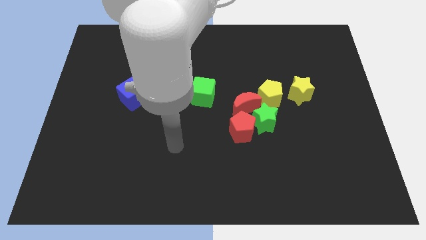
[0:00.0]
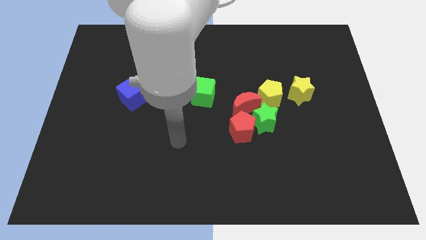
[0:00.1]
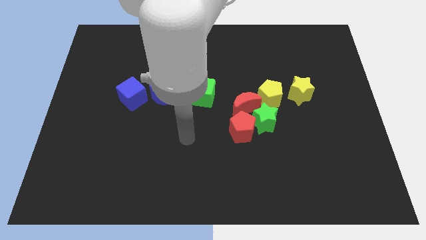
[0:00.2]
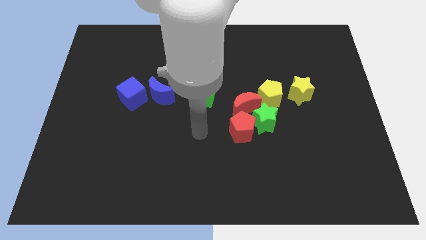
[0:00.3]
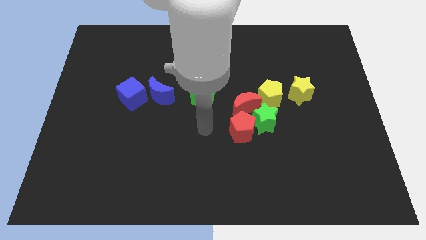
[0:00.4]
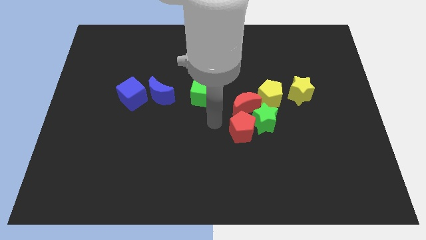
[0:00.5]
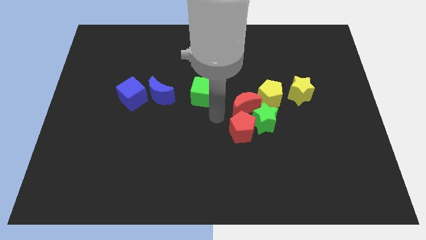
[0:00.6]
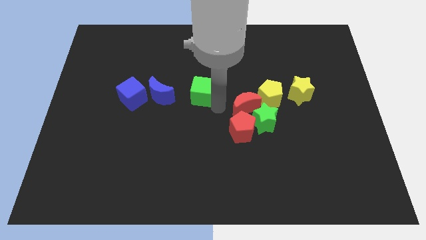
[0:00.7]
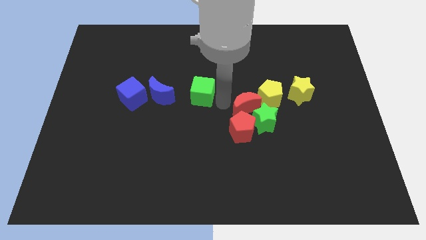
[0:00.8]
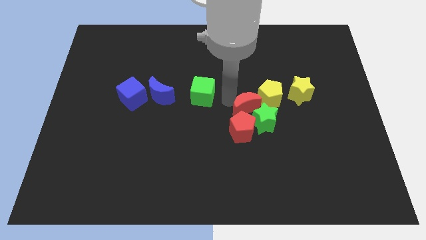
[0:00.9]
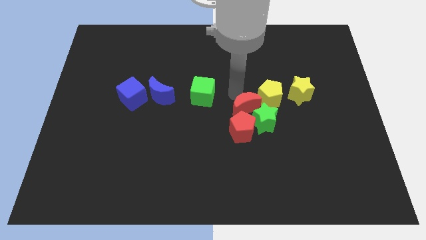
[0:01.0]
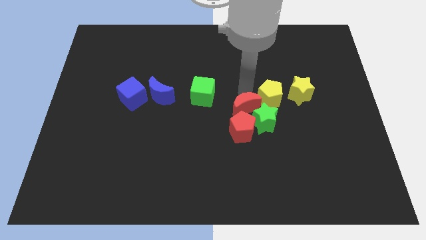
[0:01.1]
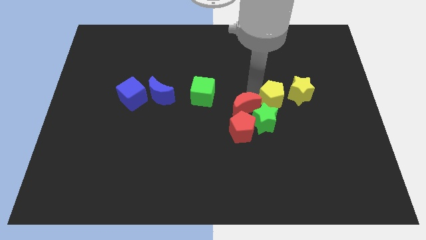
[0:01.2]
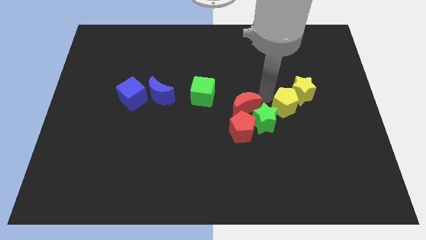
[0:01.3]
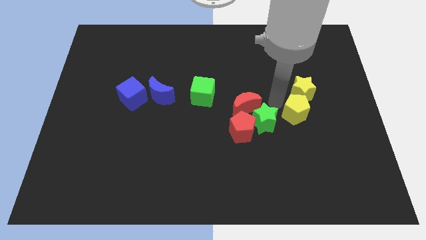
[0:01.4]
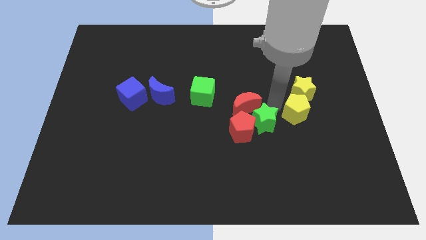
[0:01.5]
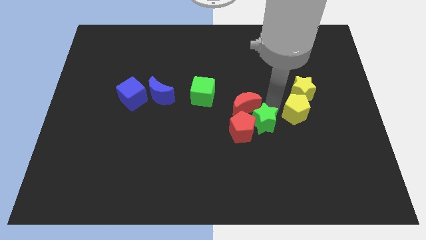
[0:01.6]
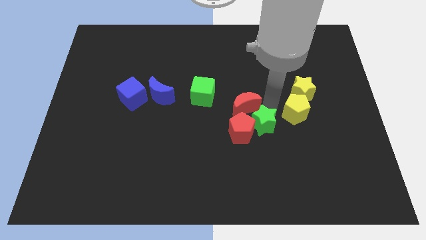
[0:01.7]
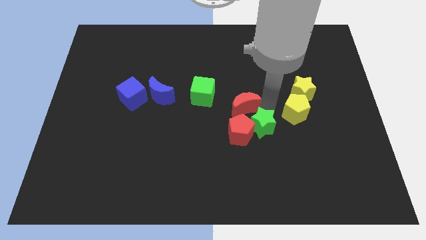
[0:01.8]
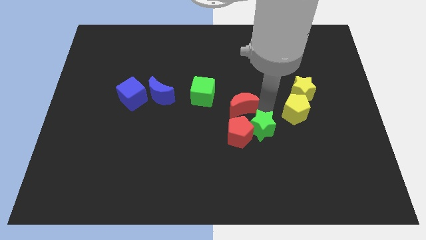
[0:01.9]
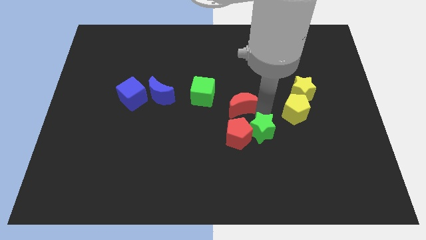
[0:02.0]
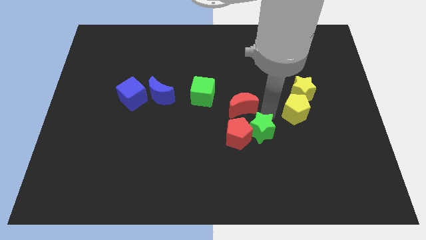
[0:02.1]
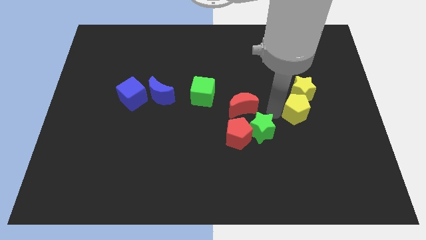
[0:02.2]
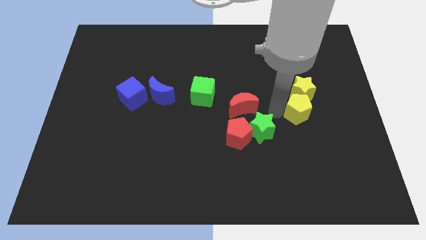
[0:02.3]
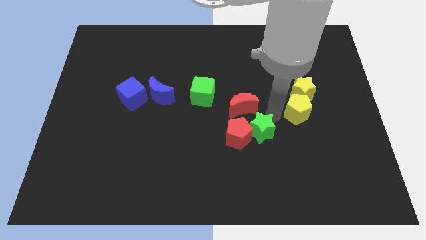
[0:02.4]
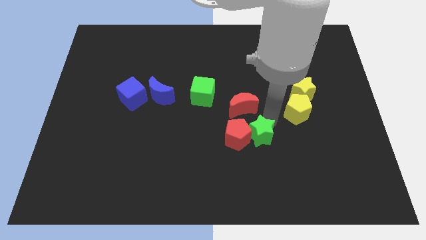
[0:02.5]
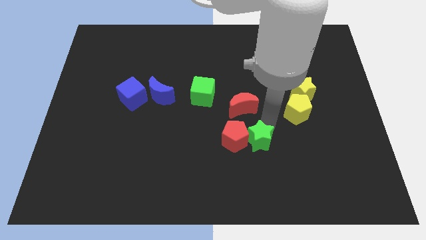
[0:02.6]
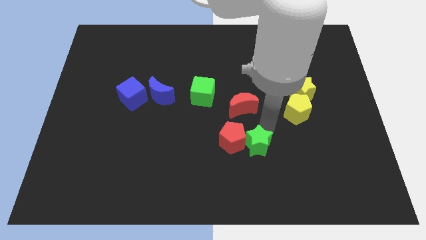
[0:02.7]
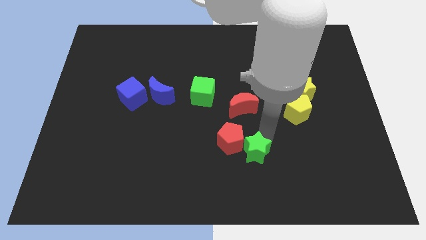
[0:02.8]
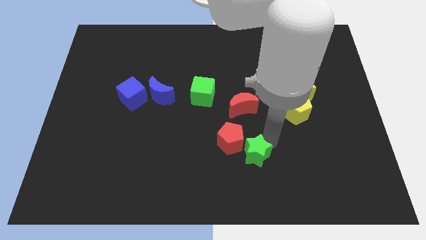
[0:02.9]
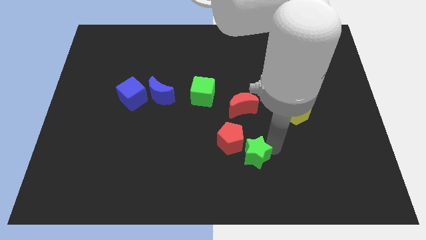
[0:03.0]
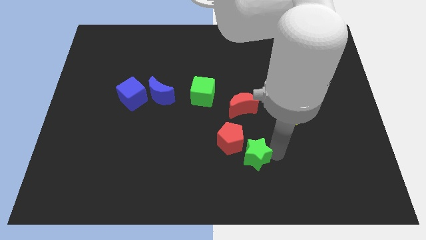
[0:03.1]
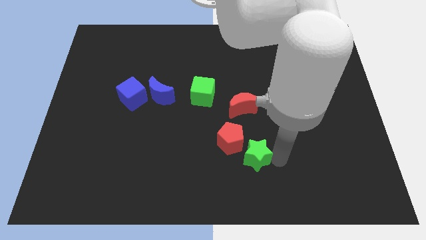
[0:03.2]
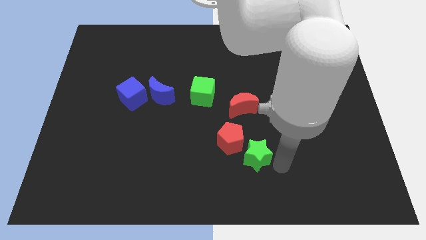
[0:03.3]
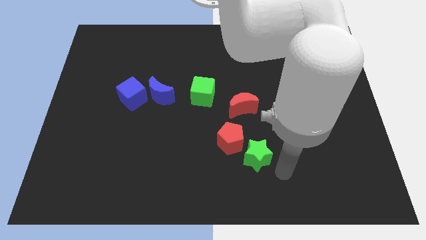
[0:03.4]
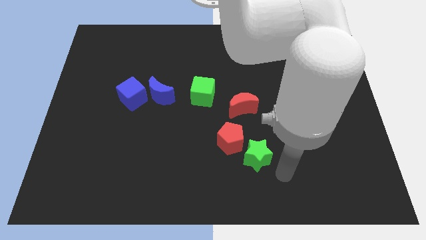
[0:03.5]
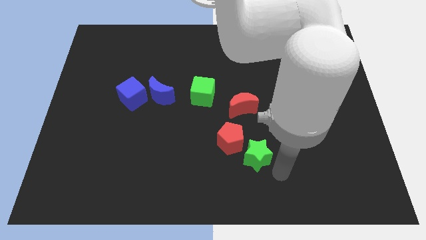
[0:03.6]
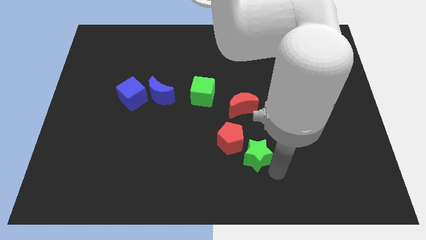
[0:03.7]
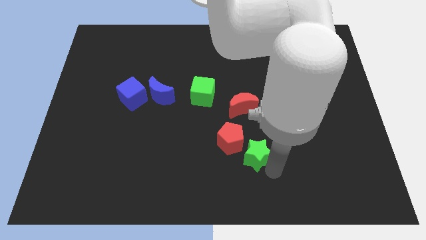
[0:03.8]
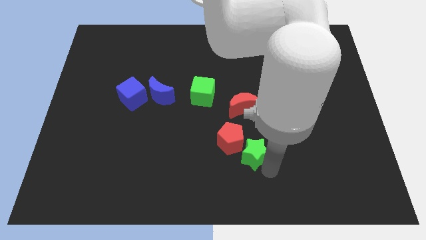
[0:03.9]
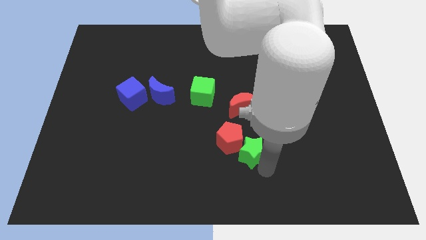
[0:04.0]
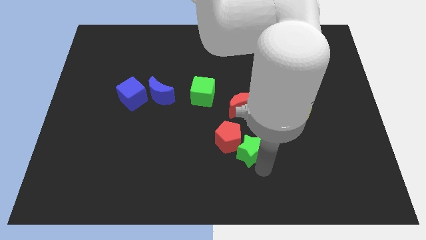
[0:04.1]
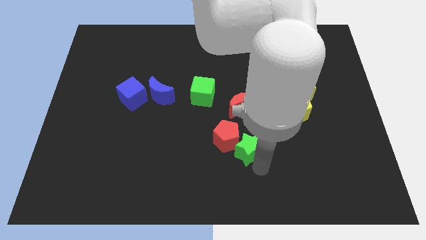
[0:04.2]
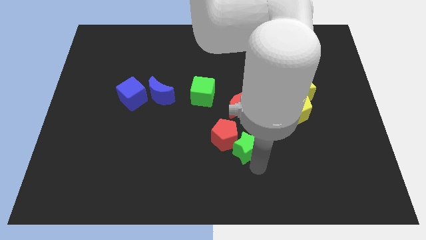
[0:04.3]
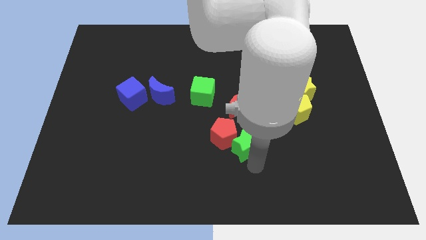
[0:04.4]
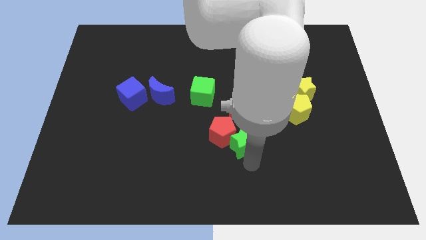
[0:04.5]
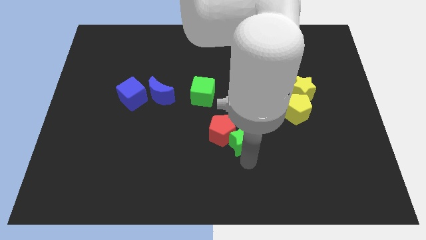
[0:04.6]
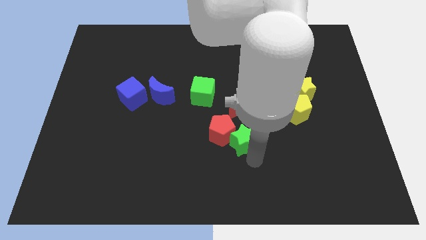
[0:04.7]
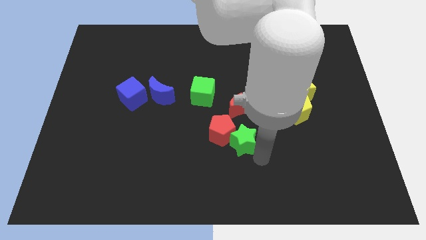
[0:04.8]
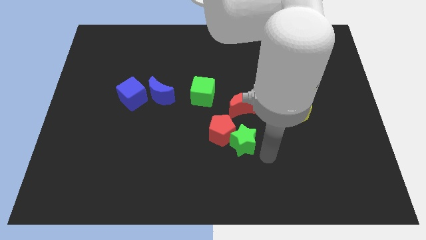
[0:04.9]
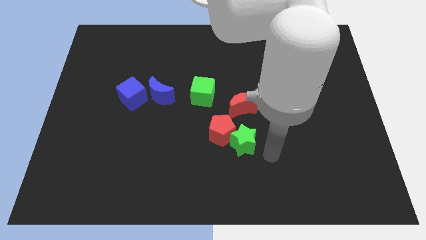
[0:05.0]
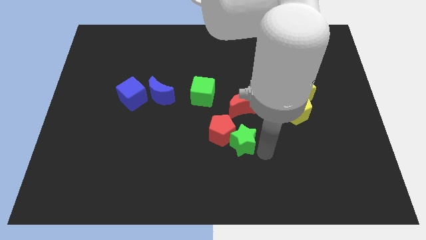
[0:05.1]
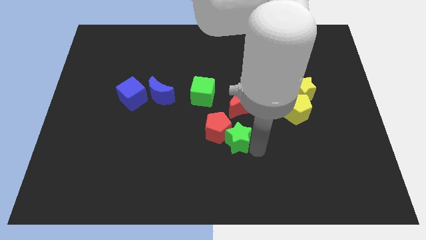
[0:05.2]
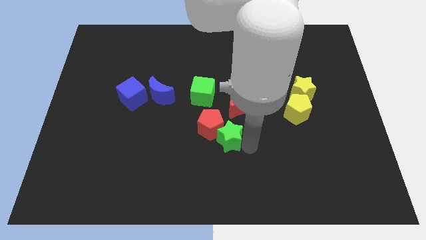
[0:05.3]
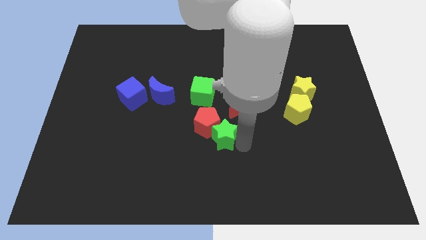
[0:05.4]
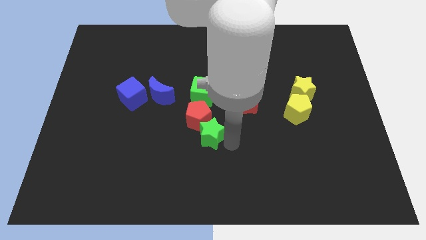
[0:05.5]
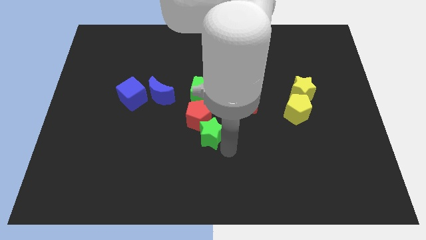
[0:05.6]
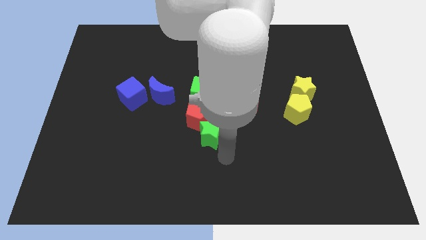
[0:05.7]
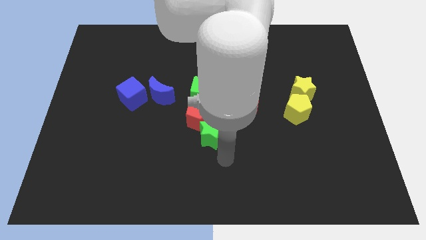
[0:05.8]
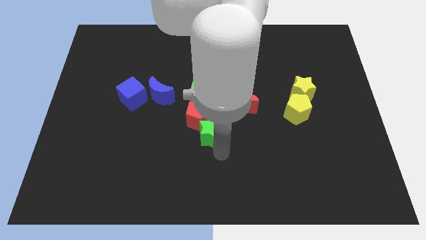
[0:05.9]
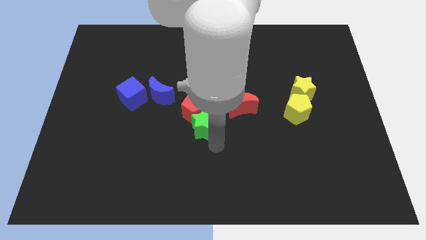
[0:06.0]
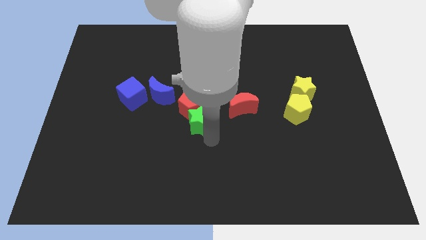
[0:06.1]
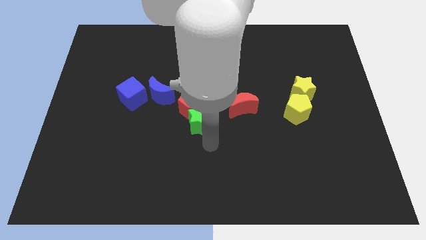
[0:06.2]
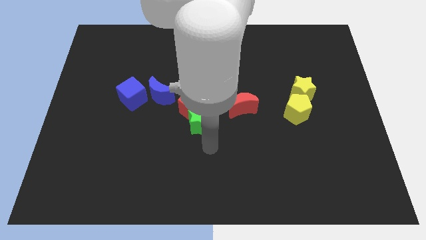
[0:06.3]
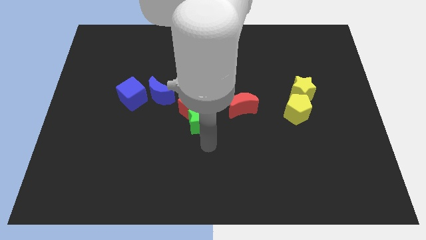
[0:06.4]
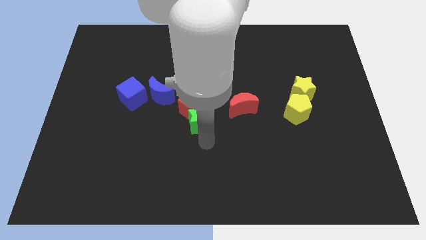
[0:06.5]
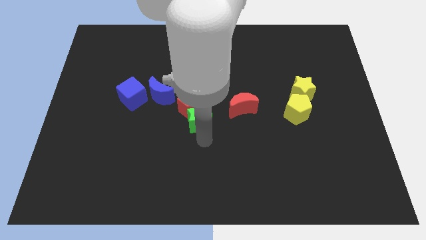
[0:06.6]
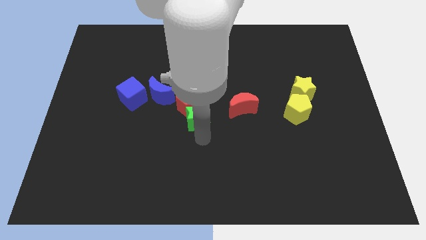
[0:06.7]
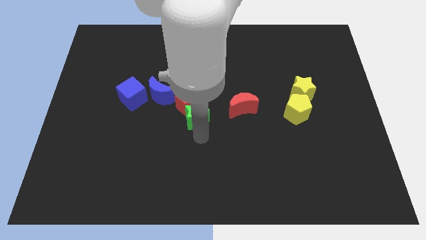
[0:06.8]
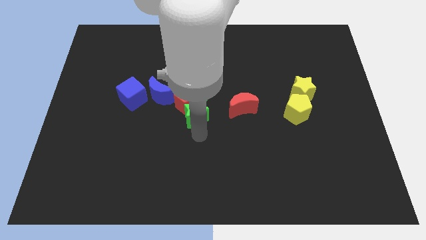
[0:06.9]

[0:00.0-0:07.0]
move the green star a little bit diagonally up and left

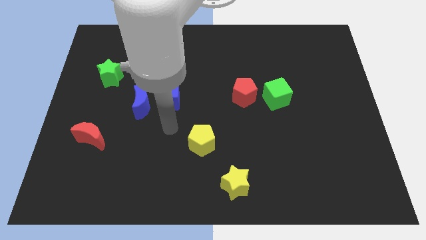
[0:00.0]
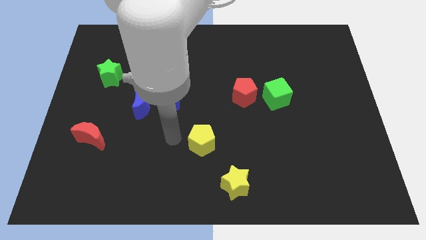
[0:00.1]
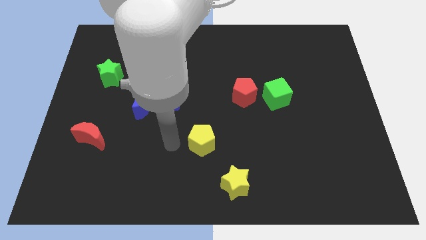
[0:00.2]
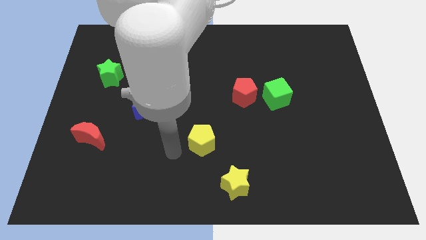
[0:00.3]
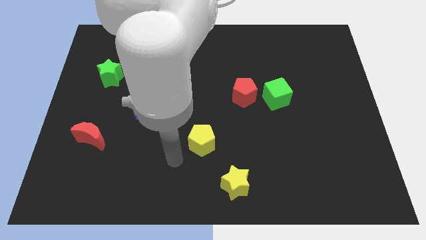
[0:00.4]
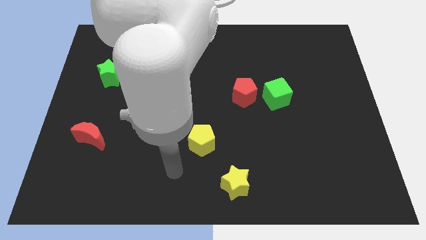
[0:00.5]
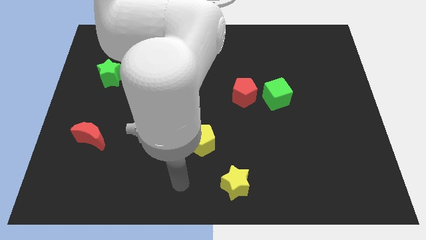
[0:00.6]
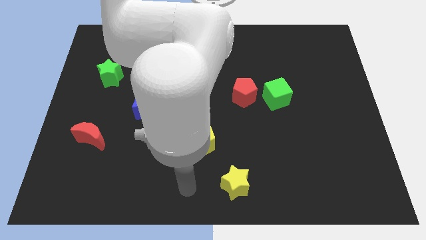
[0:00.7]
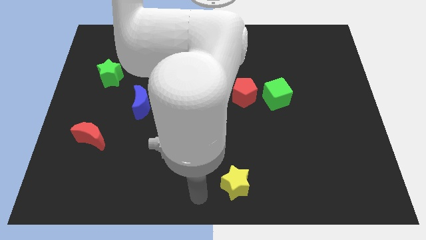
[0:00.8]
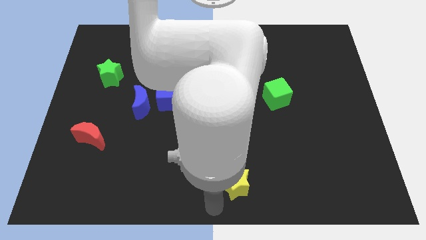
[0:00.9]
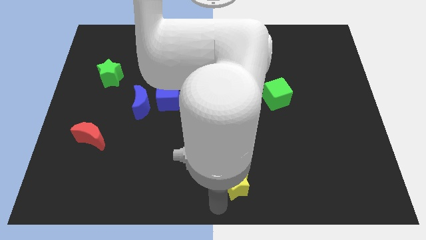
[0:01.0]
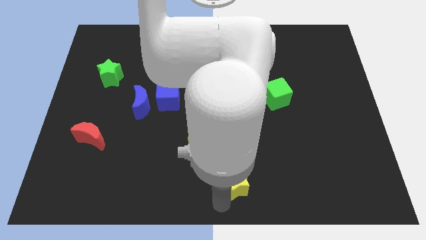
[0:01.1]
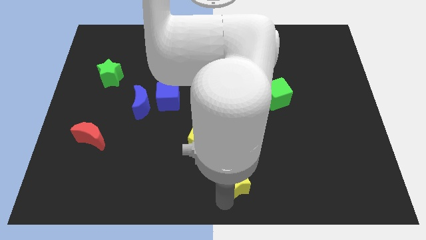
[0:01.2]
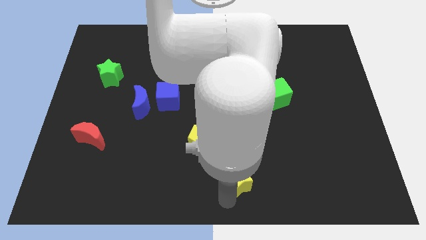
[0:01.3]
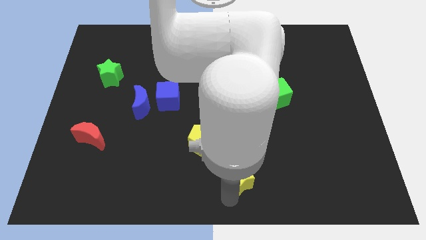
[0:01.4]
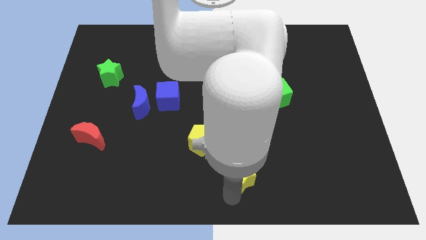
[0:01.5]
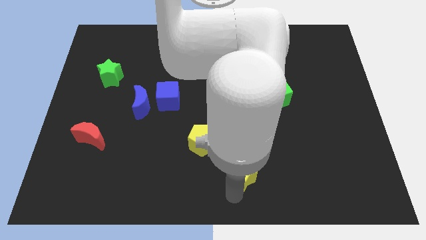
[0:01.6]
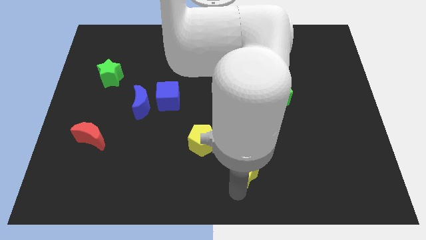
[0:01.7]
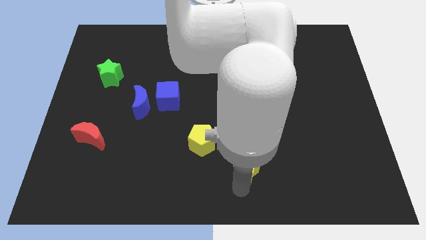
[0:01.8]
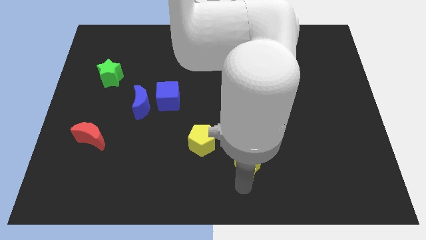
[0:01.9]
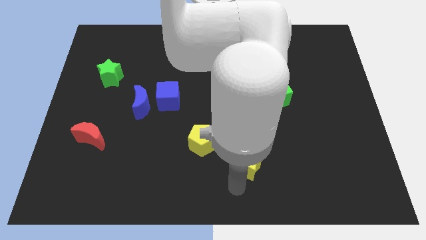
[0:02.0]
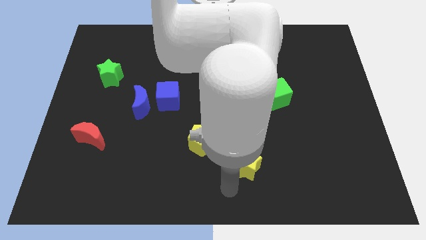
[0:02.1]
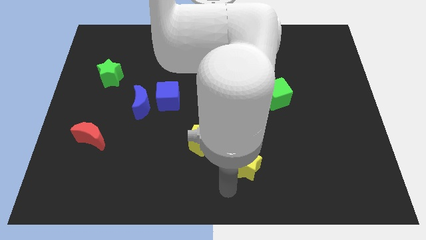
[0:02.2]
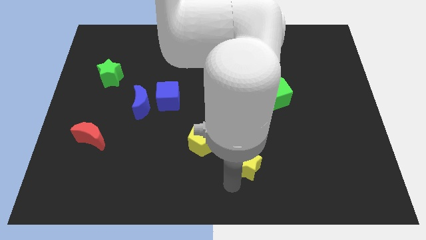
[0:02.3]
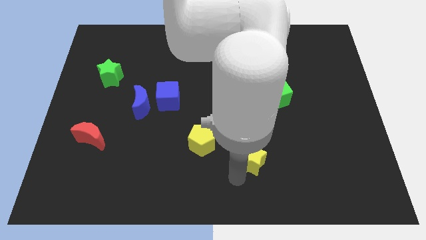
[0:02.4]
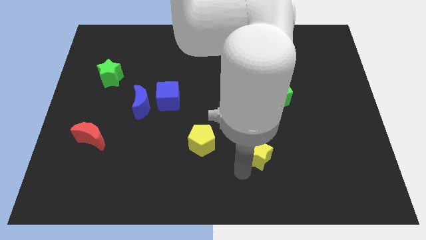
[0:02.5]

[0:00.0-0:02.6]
slightly push the yellow star upwards and then right
